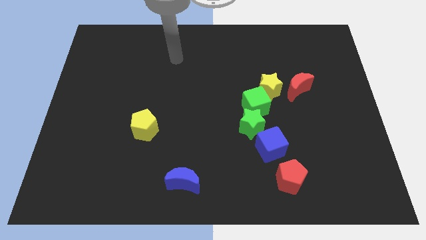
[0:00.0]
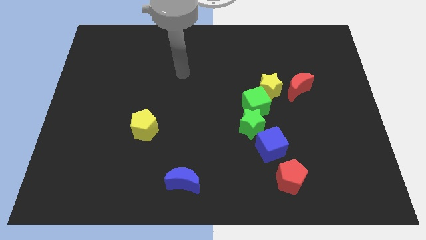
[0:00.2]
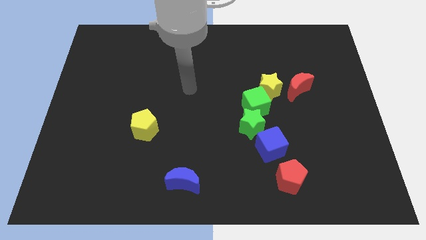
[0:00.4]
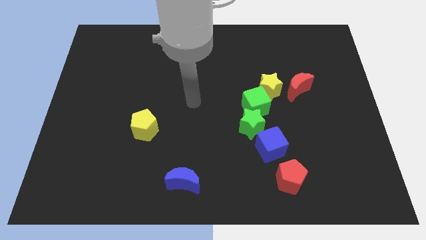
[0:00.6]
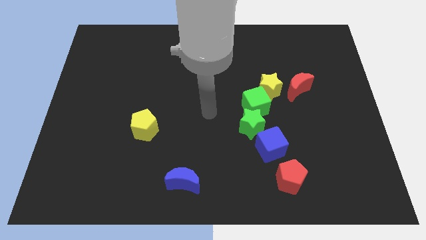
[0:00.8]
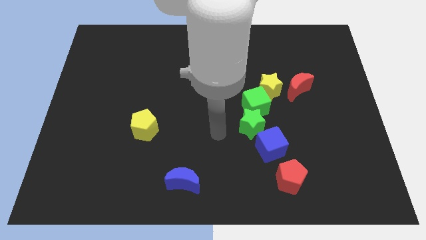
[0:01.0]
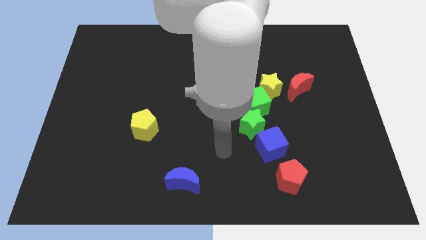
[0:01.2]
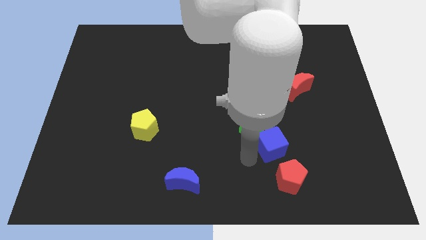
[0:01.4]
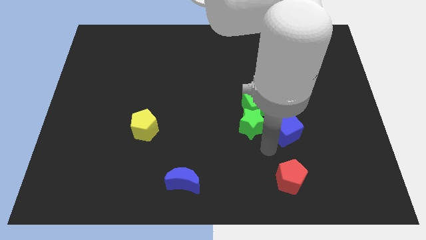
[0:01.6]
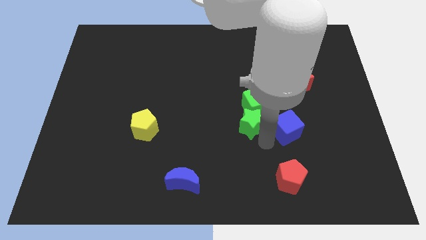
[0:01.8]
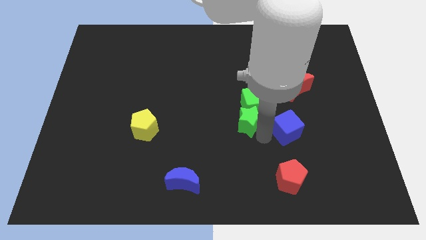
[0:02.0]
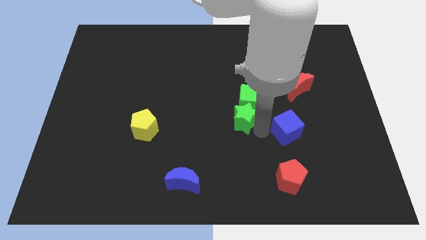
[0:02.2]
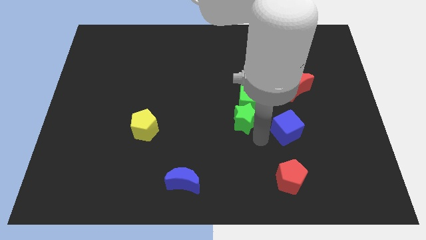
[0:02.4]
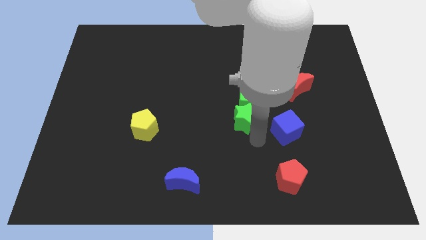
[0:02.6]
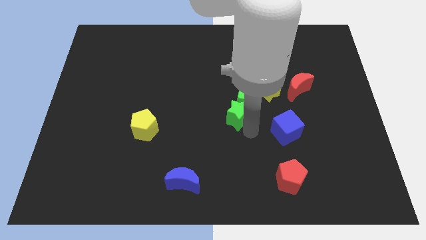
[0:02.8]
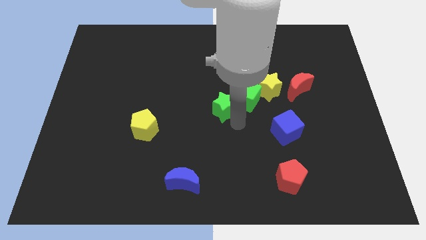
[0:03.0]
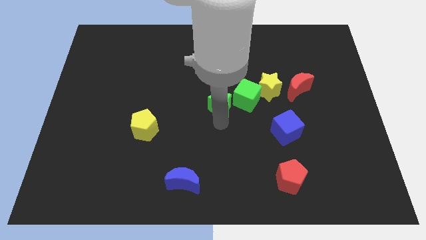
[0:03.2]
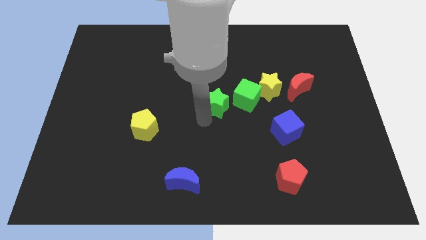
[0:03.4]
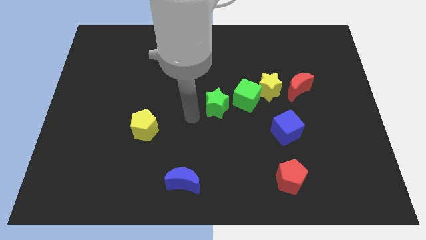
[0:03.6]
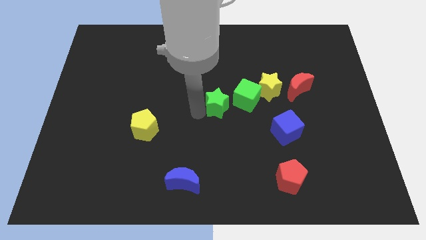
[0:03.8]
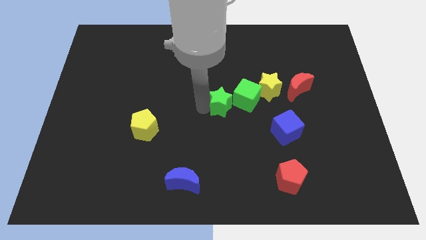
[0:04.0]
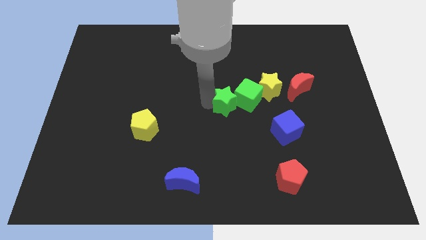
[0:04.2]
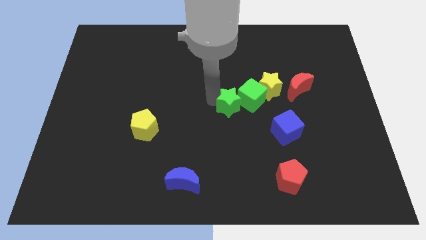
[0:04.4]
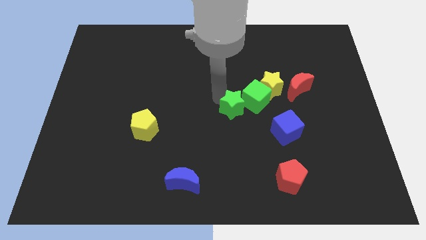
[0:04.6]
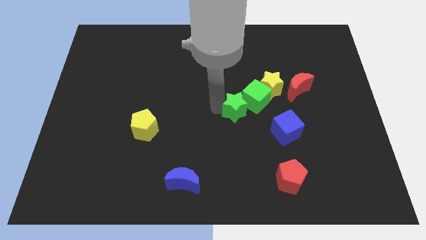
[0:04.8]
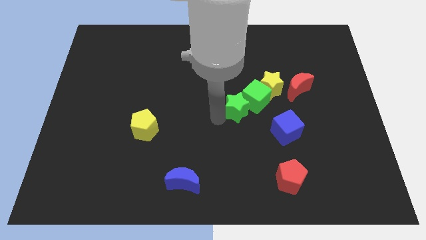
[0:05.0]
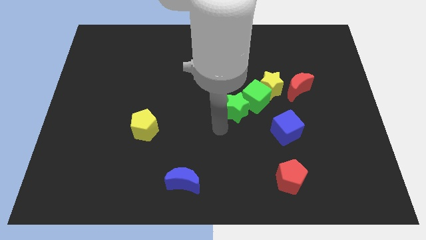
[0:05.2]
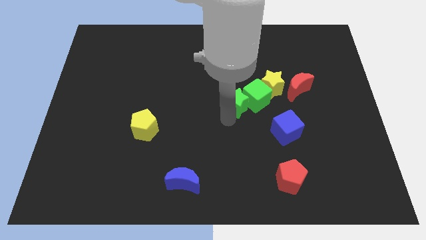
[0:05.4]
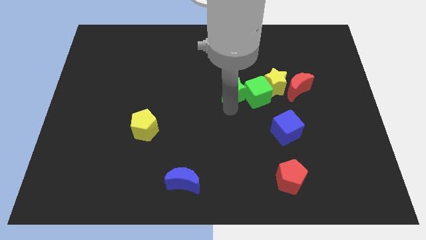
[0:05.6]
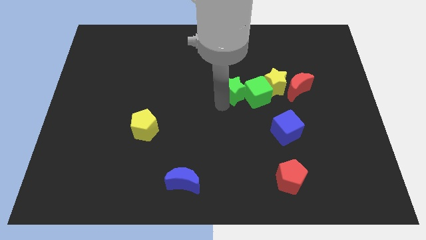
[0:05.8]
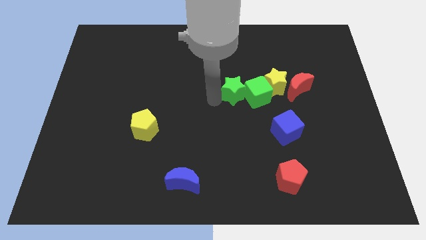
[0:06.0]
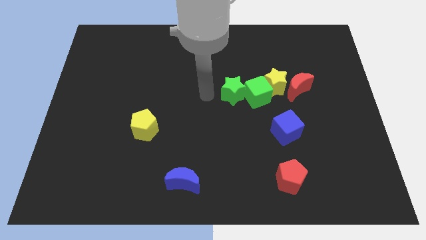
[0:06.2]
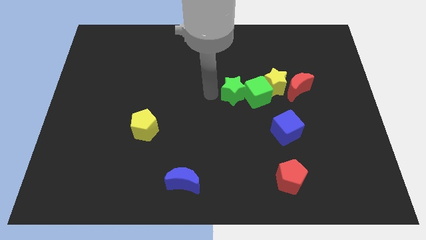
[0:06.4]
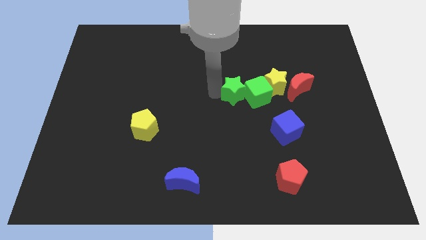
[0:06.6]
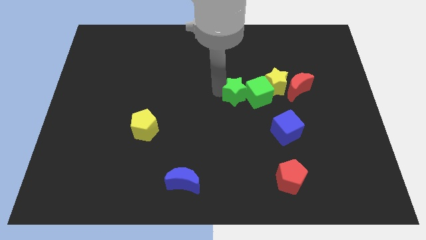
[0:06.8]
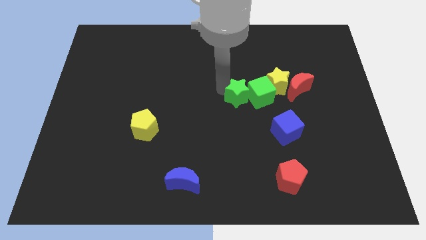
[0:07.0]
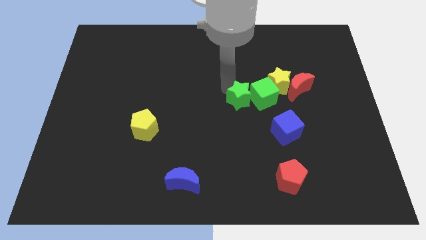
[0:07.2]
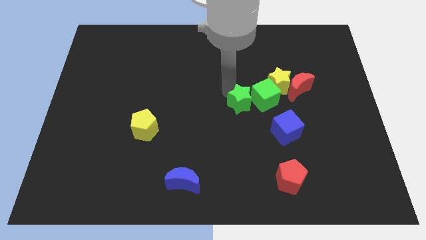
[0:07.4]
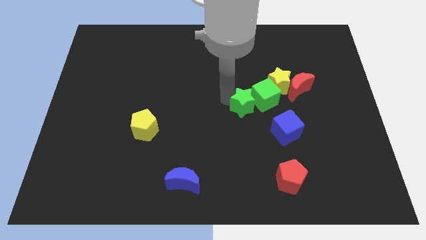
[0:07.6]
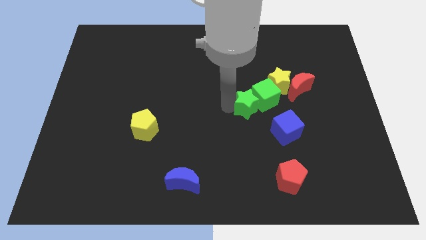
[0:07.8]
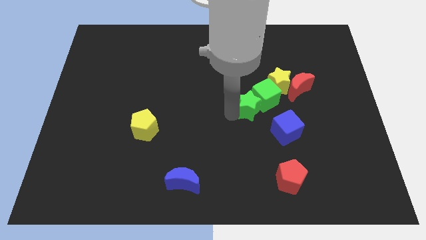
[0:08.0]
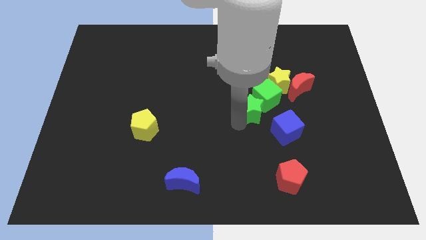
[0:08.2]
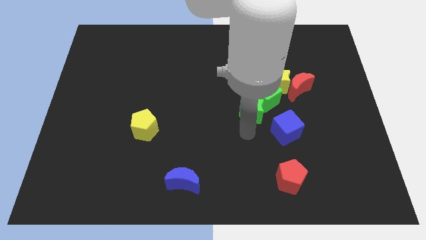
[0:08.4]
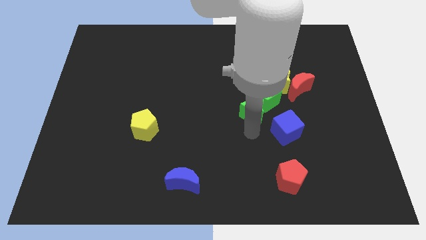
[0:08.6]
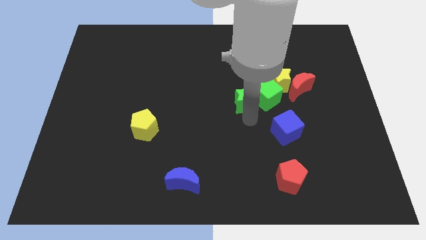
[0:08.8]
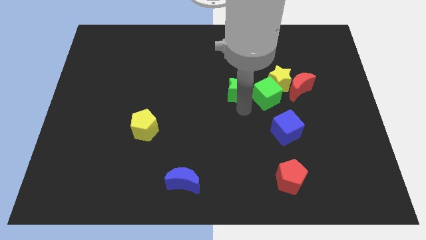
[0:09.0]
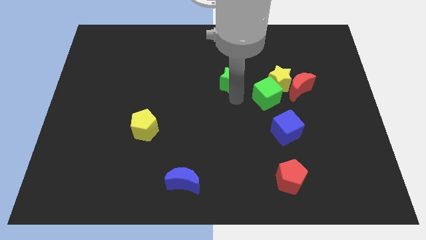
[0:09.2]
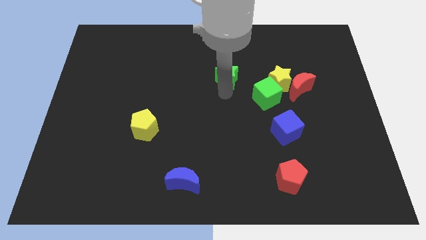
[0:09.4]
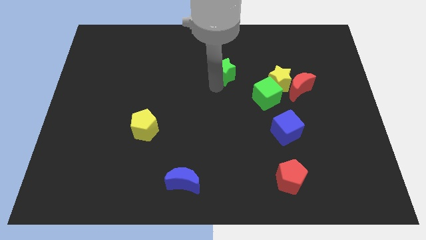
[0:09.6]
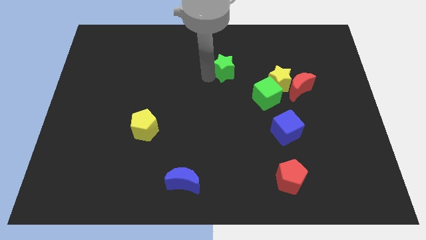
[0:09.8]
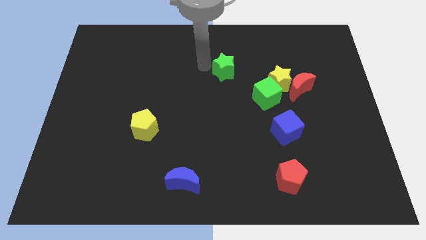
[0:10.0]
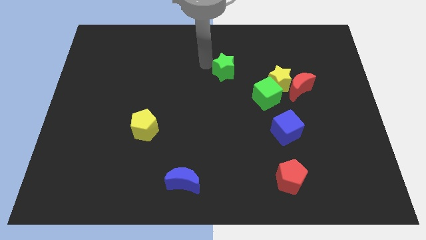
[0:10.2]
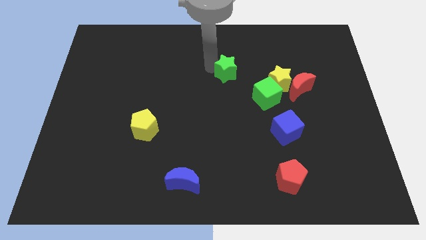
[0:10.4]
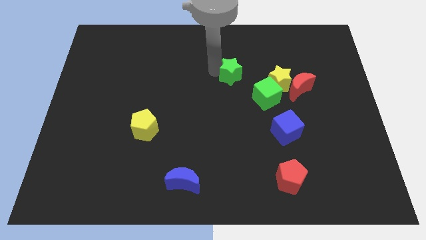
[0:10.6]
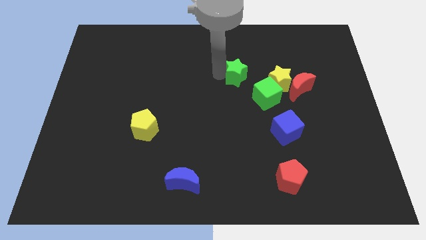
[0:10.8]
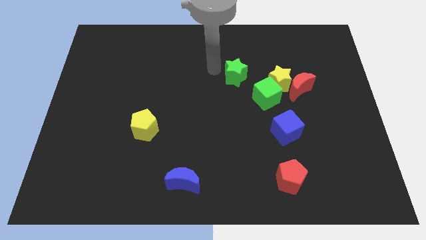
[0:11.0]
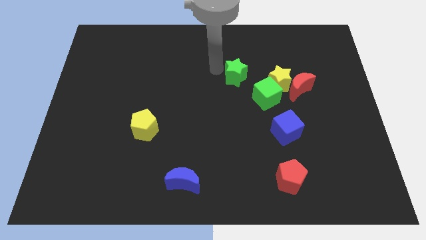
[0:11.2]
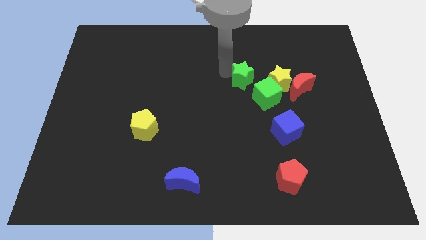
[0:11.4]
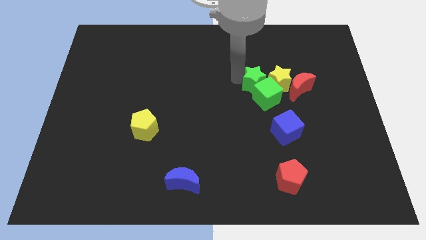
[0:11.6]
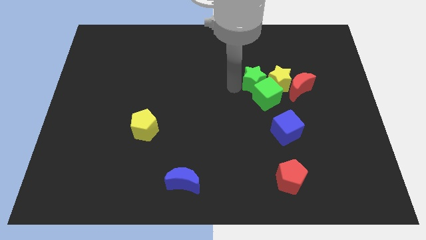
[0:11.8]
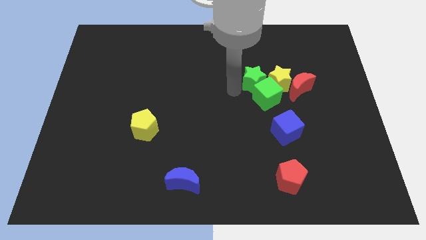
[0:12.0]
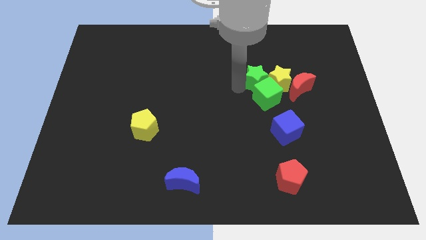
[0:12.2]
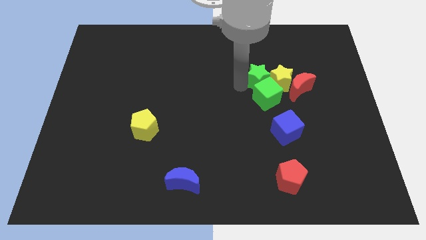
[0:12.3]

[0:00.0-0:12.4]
put the green star diagonally up and to the left of the red moon
